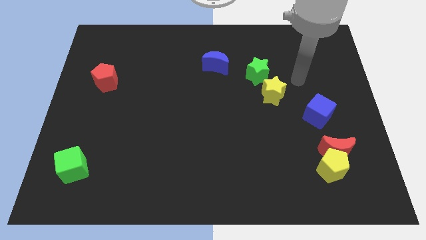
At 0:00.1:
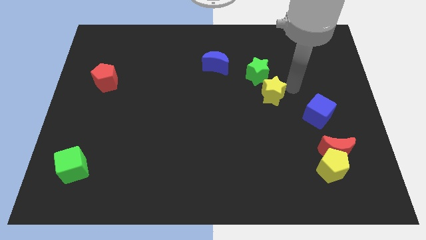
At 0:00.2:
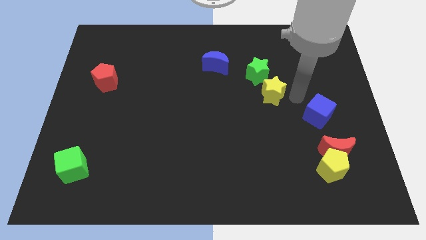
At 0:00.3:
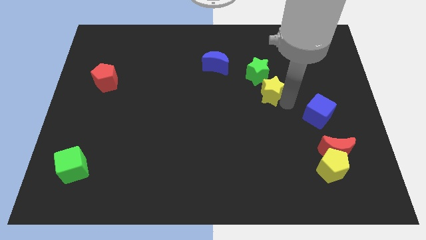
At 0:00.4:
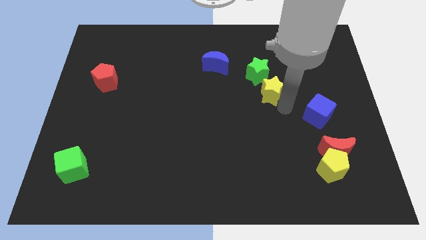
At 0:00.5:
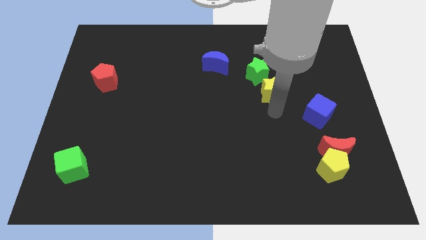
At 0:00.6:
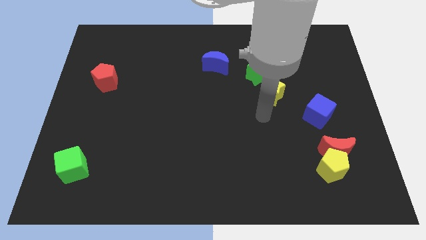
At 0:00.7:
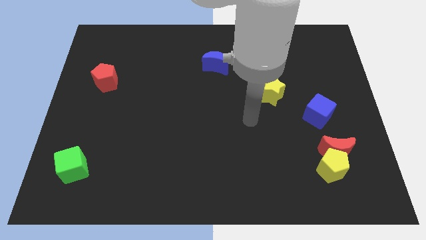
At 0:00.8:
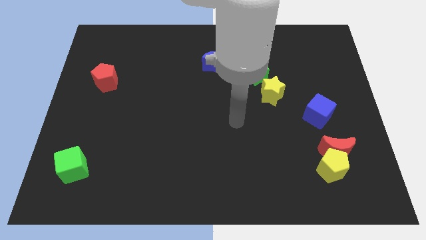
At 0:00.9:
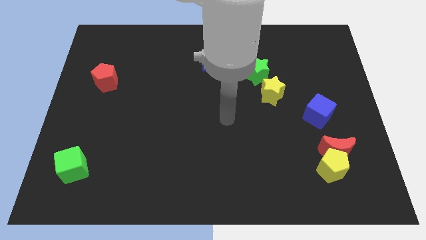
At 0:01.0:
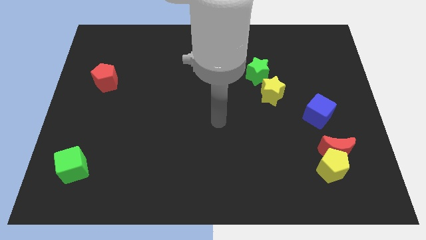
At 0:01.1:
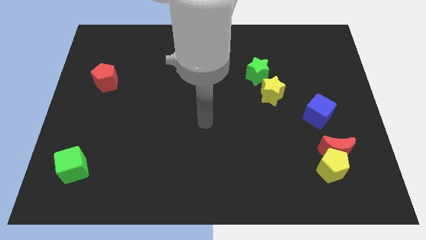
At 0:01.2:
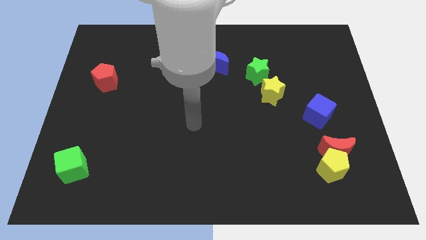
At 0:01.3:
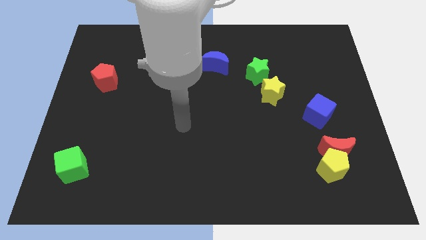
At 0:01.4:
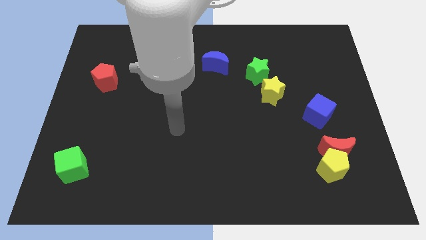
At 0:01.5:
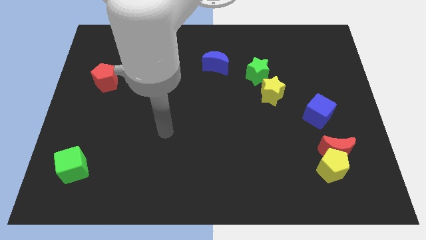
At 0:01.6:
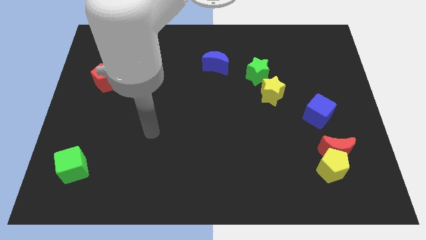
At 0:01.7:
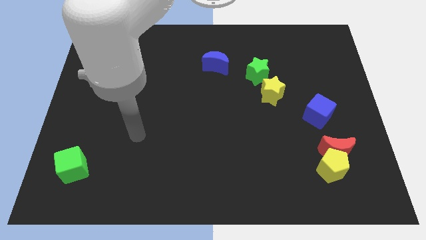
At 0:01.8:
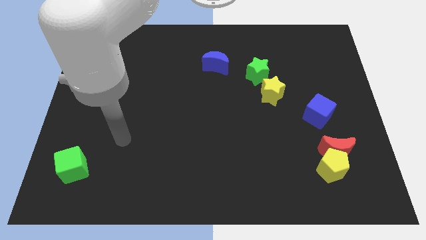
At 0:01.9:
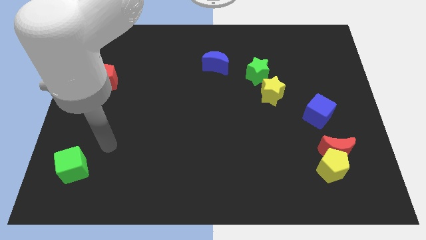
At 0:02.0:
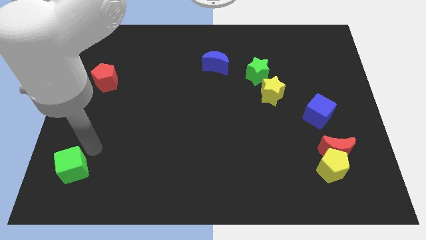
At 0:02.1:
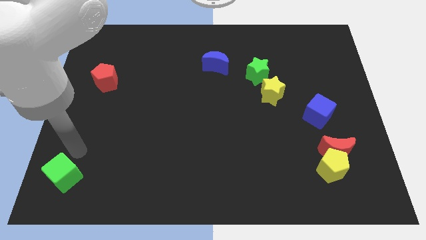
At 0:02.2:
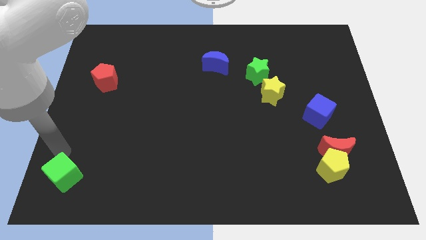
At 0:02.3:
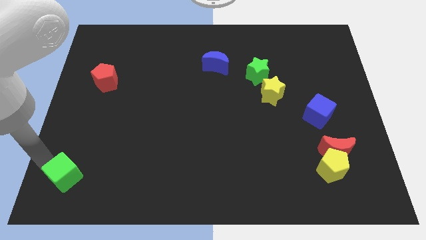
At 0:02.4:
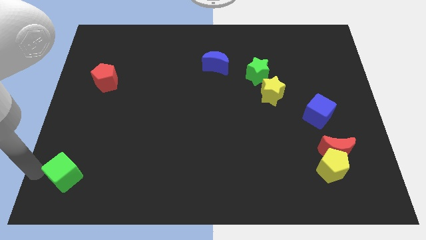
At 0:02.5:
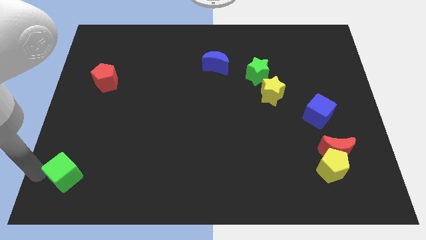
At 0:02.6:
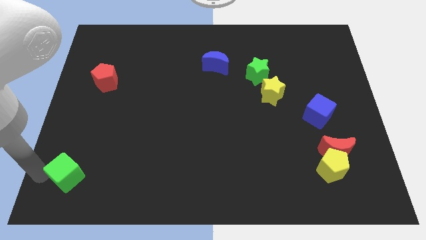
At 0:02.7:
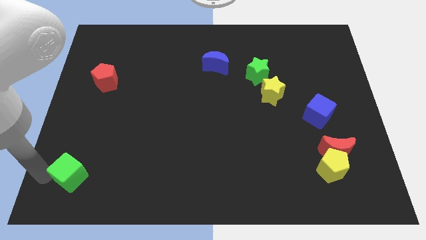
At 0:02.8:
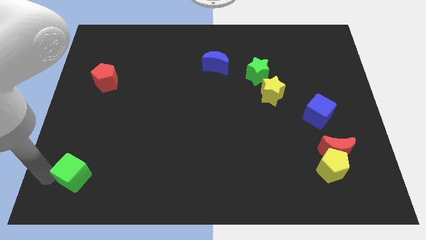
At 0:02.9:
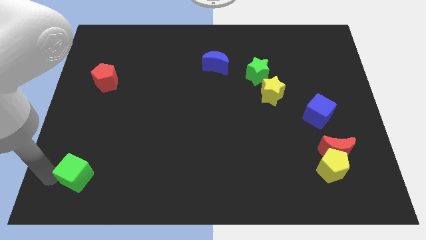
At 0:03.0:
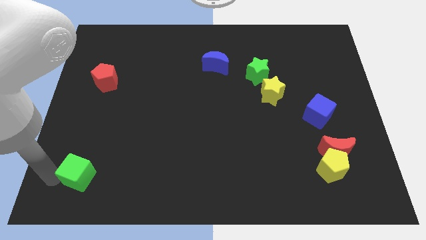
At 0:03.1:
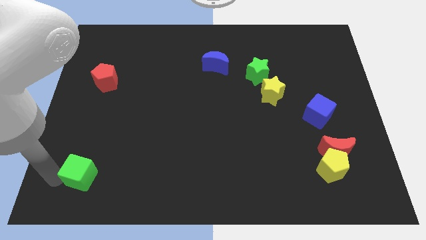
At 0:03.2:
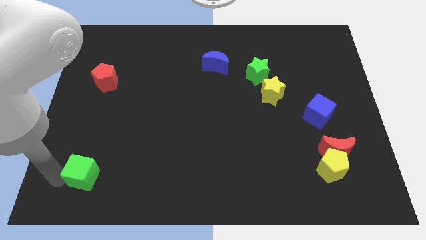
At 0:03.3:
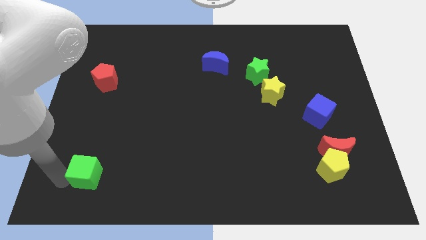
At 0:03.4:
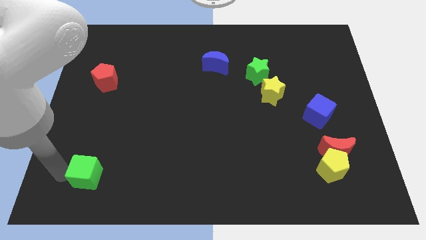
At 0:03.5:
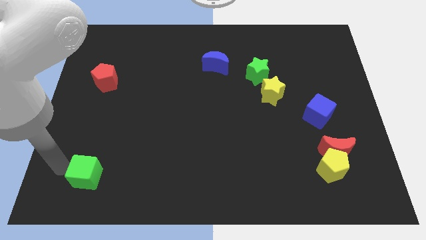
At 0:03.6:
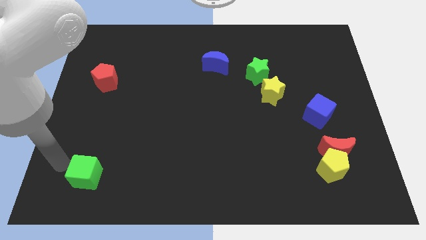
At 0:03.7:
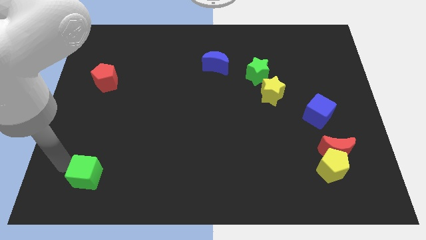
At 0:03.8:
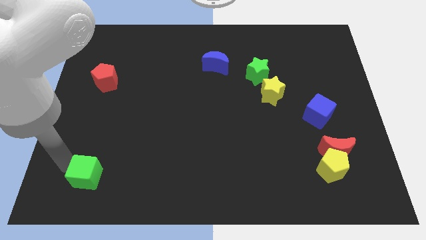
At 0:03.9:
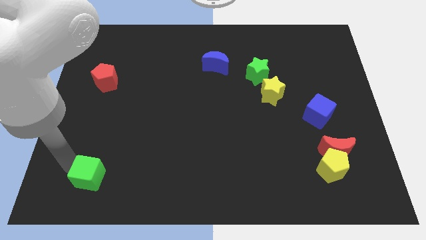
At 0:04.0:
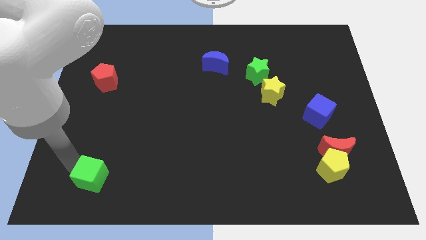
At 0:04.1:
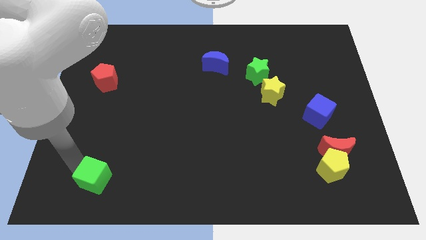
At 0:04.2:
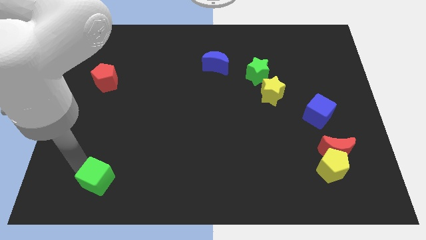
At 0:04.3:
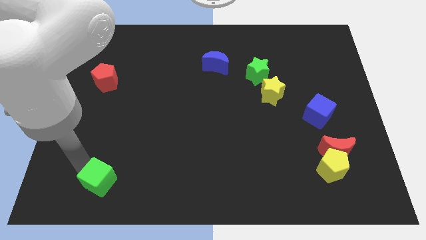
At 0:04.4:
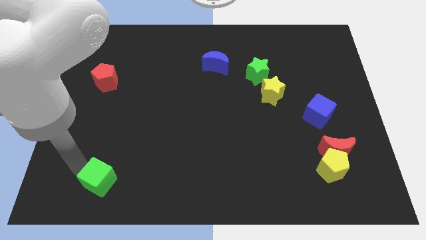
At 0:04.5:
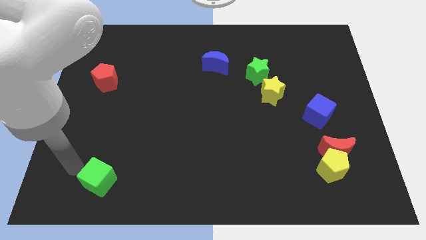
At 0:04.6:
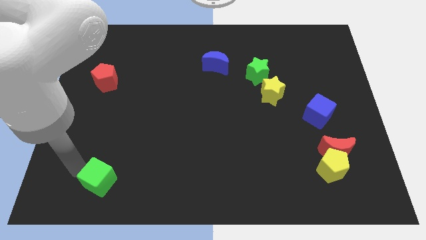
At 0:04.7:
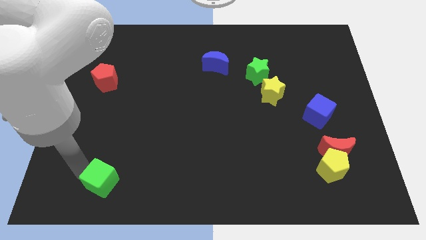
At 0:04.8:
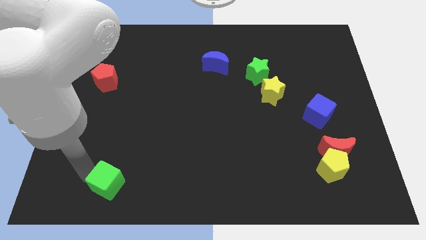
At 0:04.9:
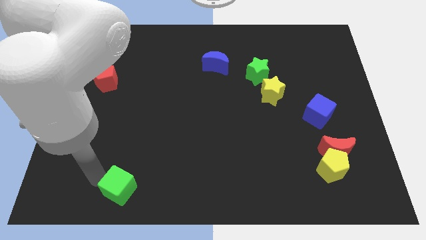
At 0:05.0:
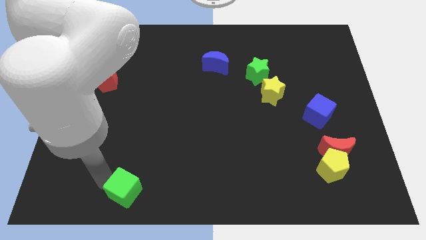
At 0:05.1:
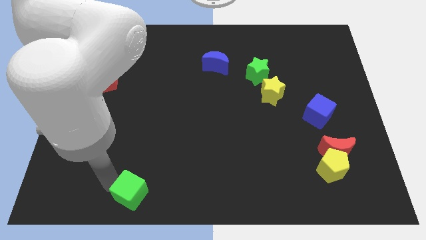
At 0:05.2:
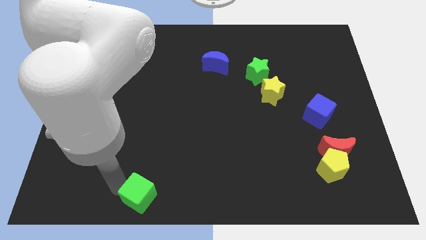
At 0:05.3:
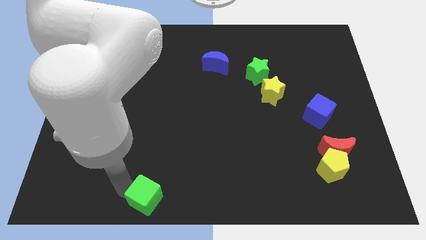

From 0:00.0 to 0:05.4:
push the green cube to the bottom

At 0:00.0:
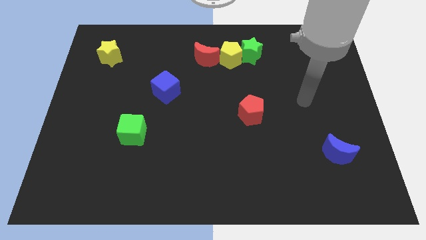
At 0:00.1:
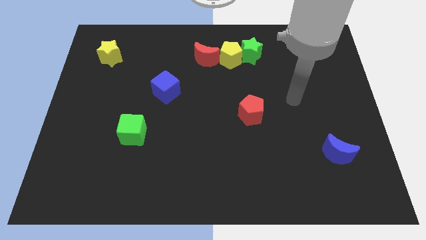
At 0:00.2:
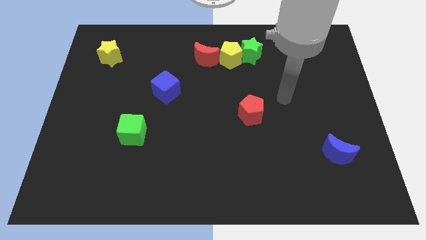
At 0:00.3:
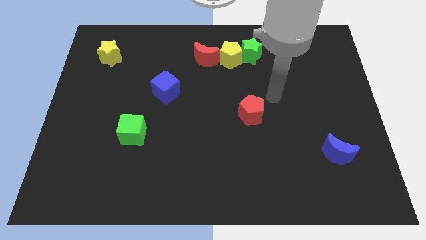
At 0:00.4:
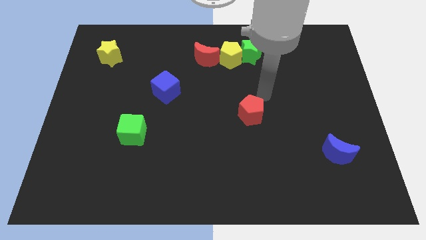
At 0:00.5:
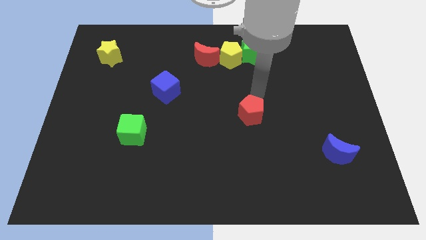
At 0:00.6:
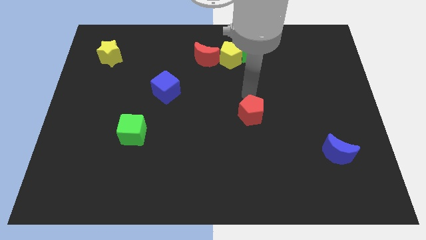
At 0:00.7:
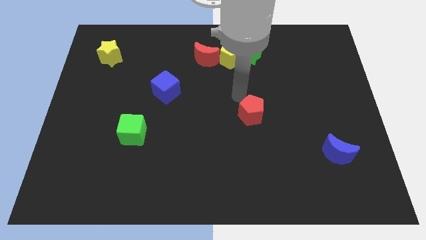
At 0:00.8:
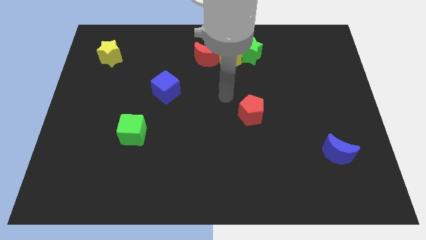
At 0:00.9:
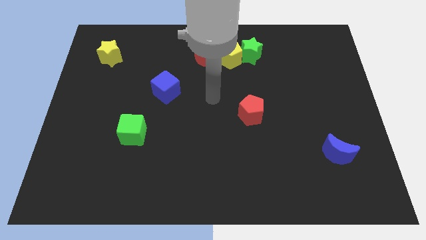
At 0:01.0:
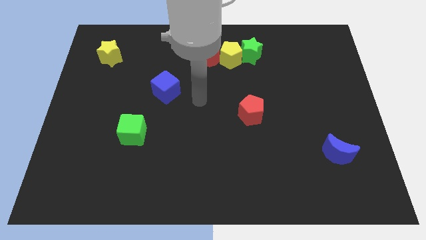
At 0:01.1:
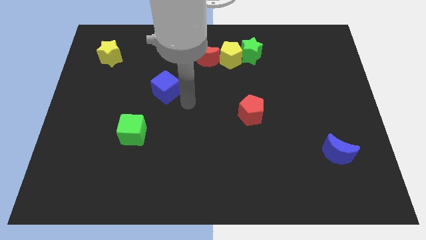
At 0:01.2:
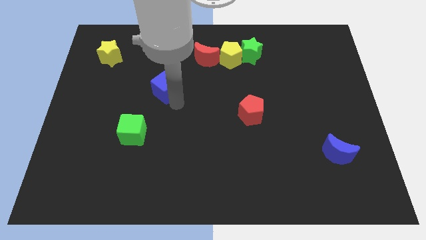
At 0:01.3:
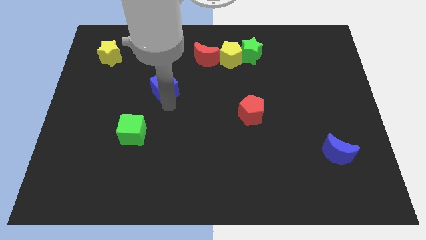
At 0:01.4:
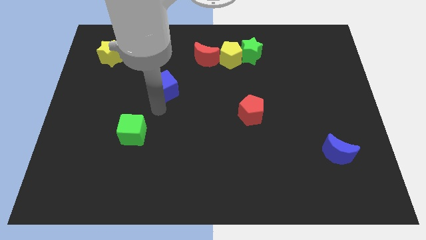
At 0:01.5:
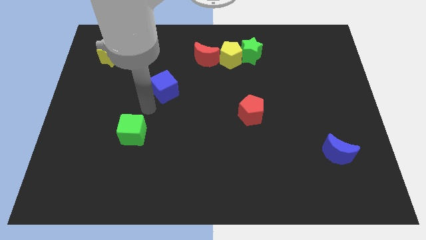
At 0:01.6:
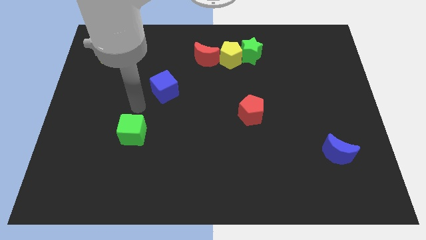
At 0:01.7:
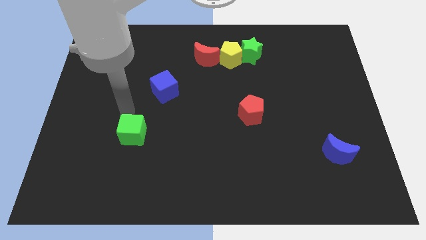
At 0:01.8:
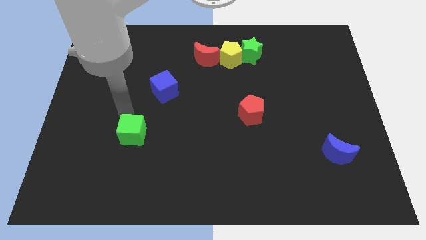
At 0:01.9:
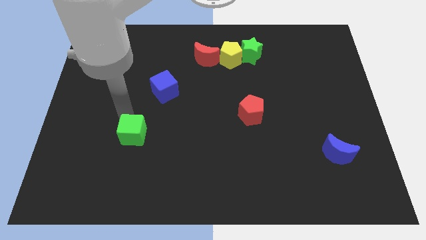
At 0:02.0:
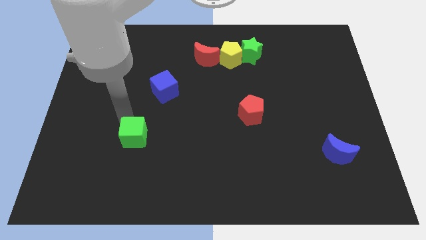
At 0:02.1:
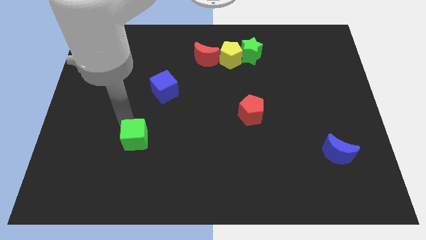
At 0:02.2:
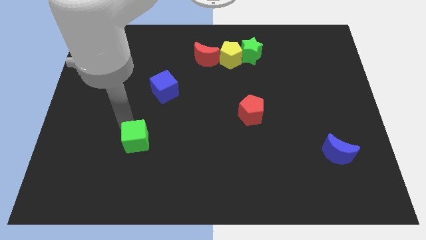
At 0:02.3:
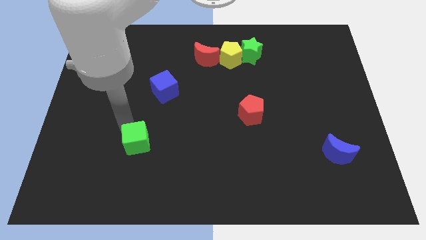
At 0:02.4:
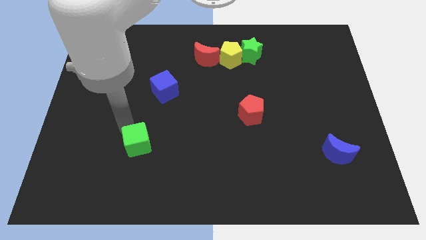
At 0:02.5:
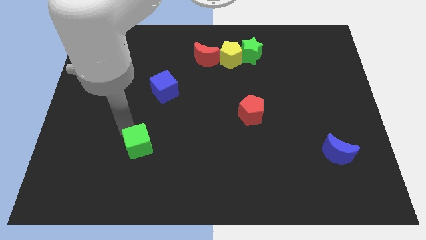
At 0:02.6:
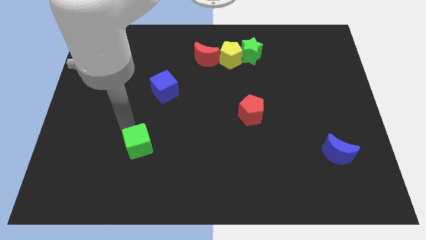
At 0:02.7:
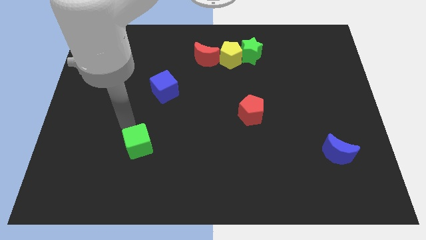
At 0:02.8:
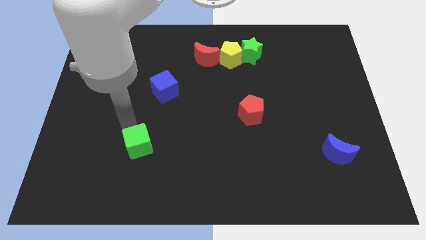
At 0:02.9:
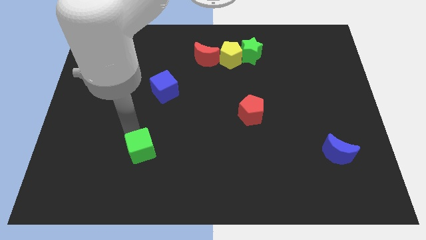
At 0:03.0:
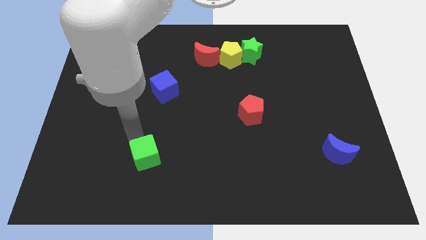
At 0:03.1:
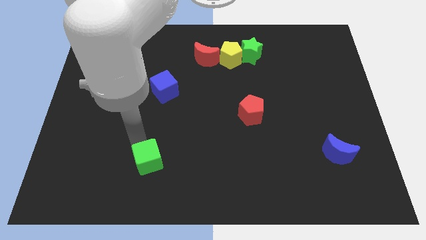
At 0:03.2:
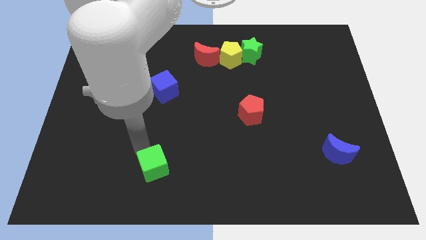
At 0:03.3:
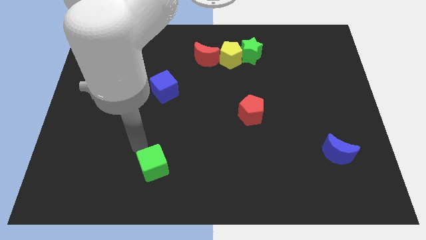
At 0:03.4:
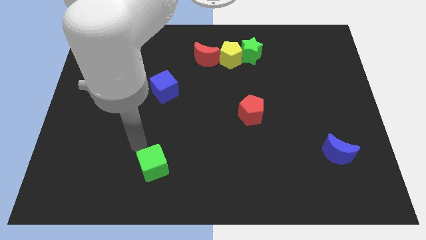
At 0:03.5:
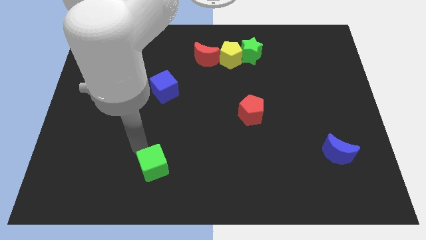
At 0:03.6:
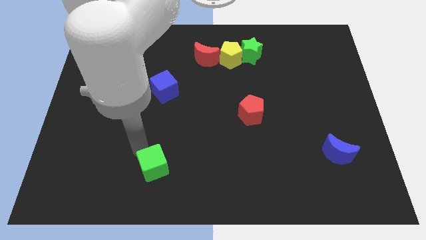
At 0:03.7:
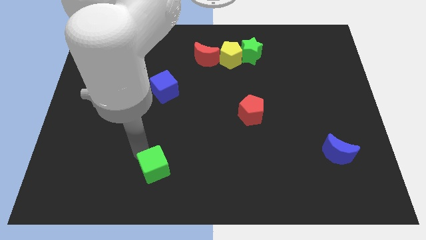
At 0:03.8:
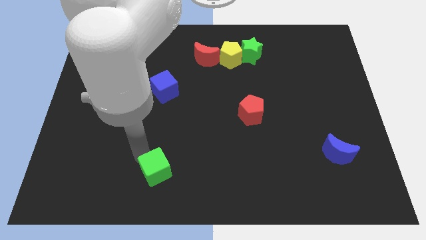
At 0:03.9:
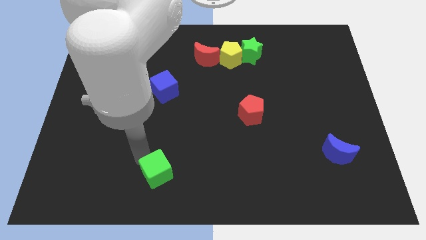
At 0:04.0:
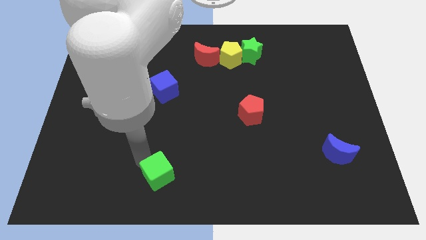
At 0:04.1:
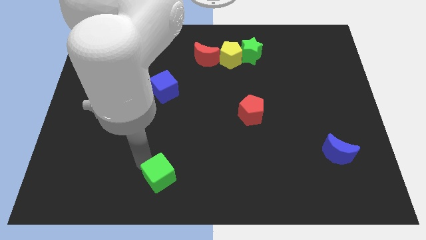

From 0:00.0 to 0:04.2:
push the green cube to the bottom side
